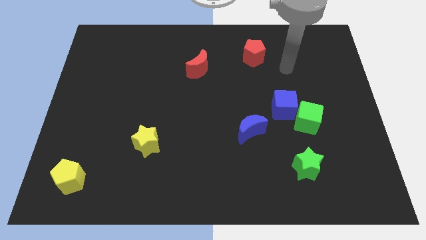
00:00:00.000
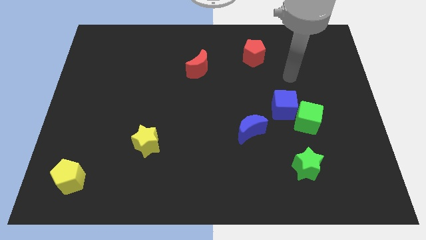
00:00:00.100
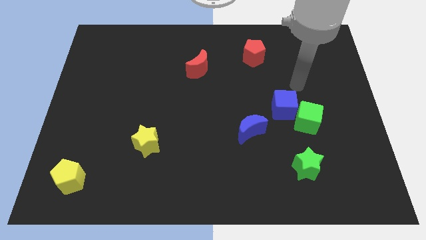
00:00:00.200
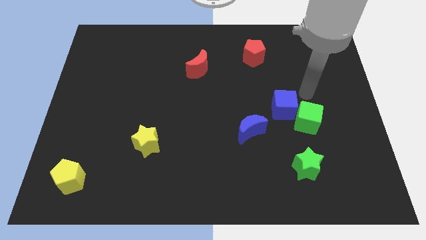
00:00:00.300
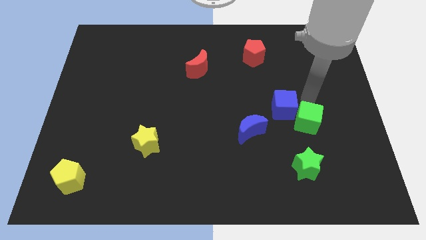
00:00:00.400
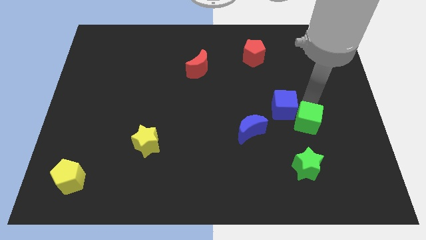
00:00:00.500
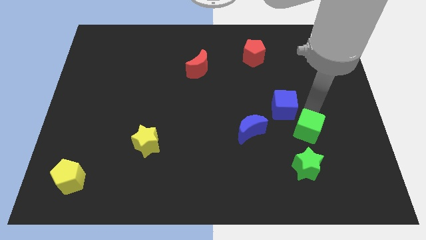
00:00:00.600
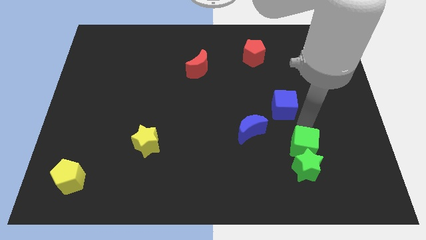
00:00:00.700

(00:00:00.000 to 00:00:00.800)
separate the blue cube from the green cube

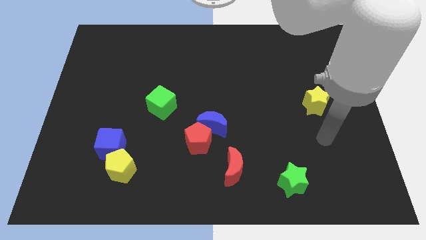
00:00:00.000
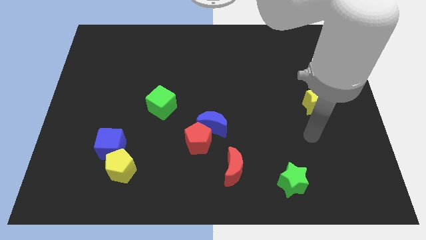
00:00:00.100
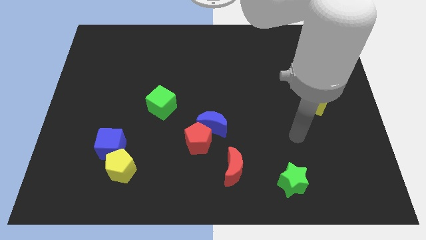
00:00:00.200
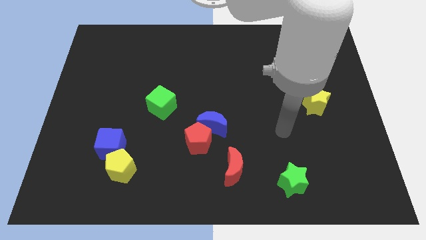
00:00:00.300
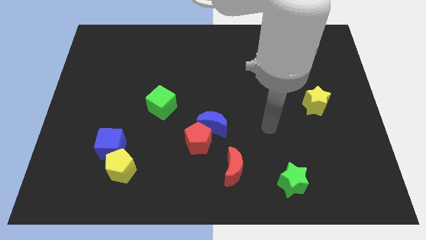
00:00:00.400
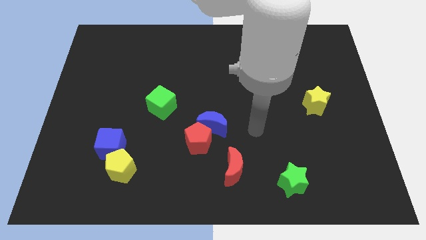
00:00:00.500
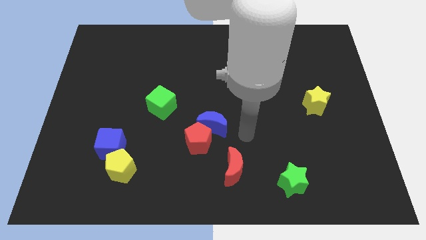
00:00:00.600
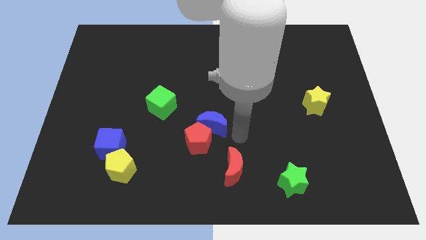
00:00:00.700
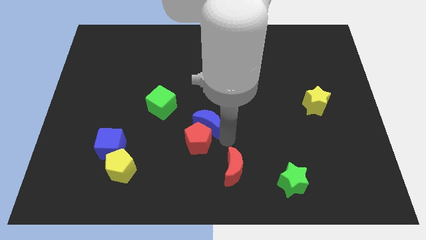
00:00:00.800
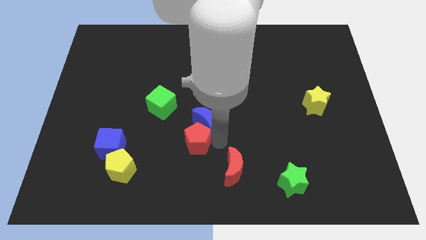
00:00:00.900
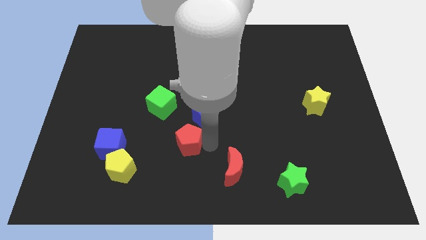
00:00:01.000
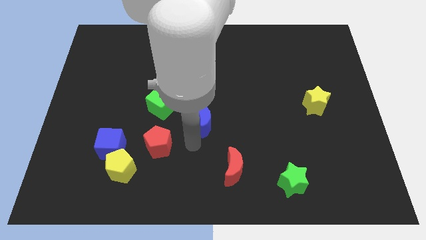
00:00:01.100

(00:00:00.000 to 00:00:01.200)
move the blue moon away from the red pentagon

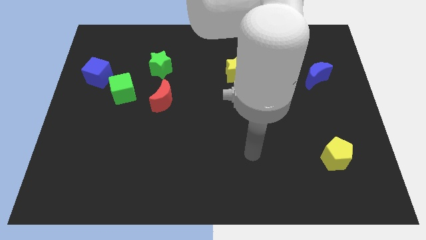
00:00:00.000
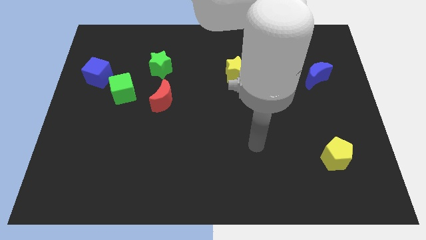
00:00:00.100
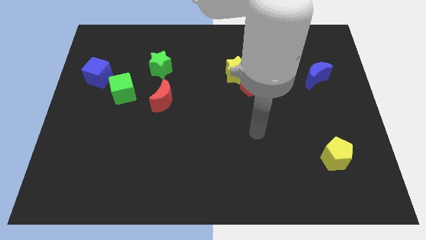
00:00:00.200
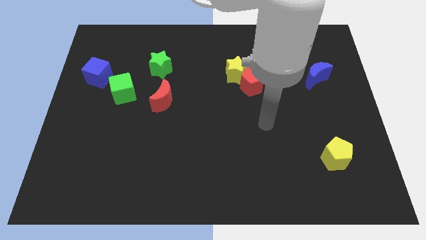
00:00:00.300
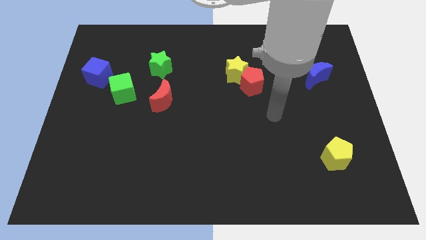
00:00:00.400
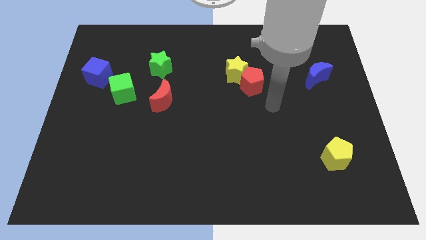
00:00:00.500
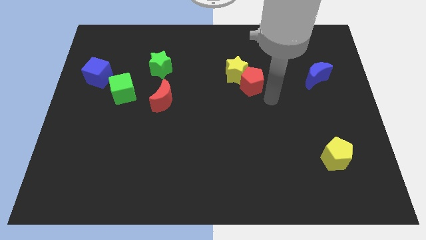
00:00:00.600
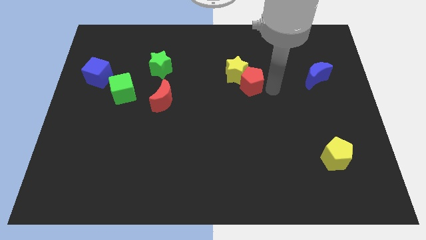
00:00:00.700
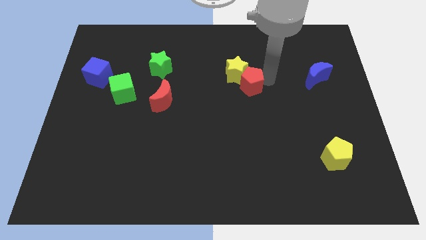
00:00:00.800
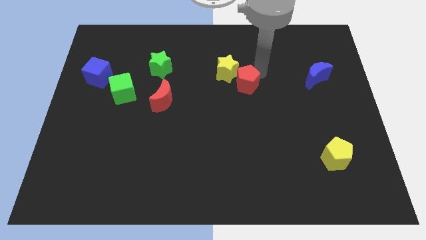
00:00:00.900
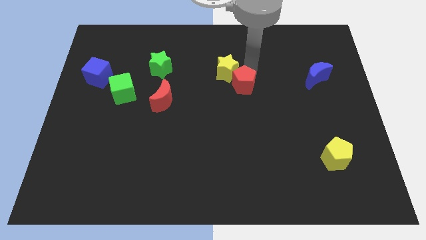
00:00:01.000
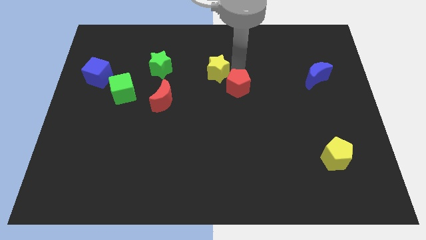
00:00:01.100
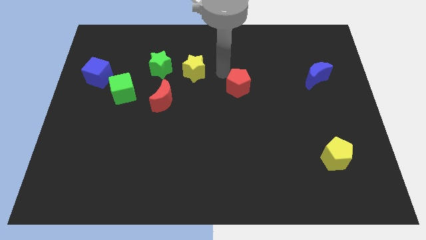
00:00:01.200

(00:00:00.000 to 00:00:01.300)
move the red pentagon away from the yellow star

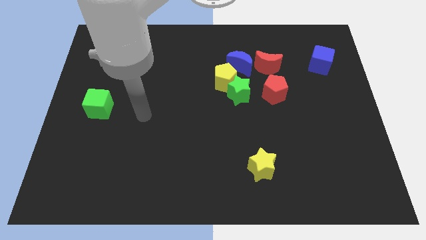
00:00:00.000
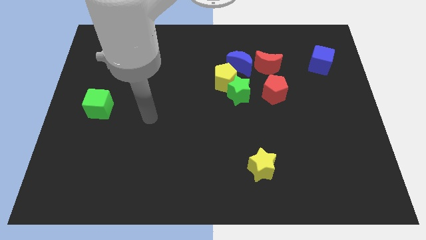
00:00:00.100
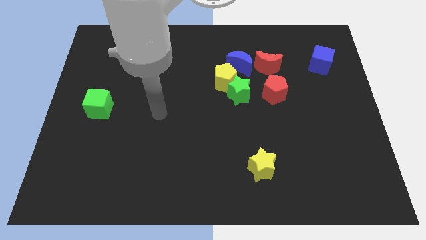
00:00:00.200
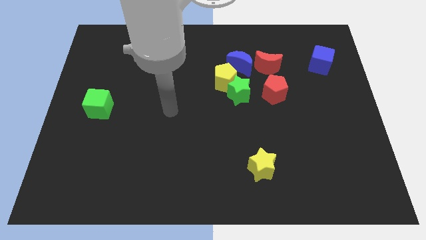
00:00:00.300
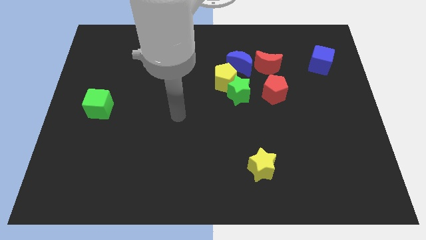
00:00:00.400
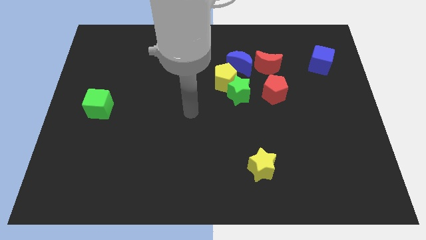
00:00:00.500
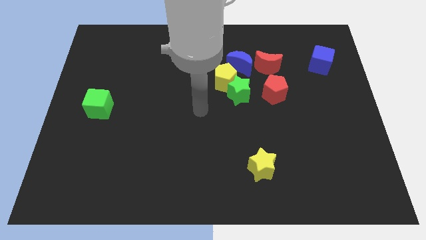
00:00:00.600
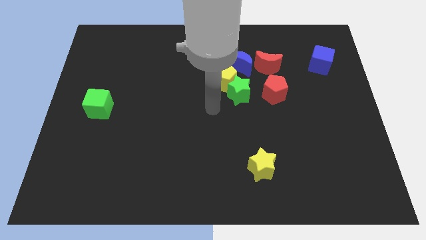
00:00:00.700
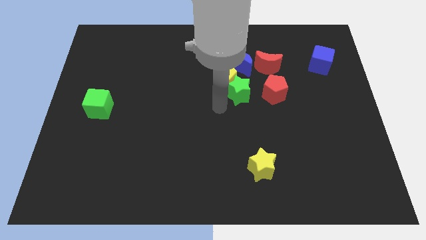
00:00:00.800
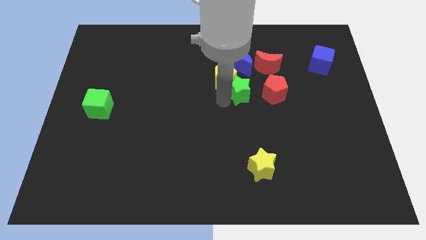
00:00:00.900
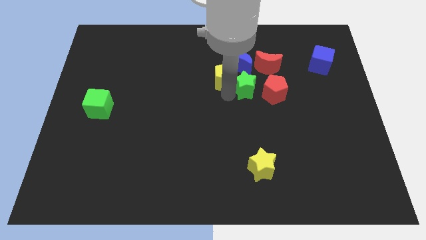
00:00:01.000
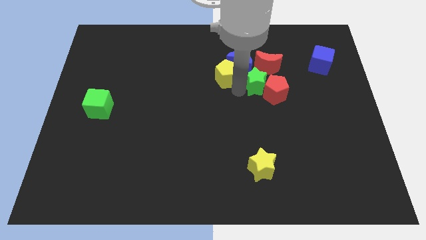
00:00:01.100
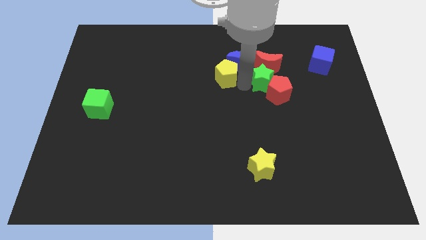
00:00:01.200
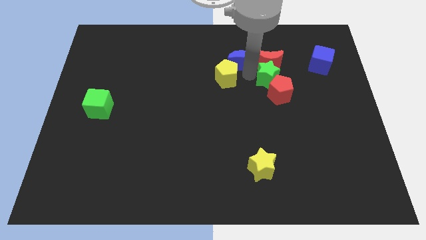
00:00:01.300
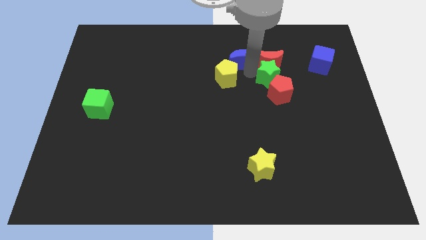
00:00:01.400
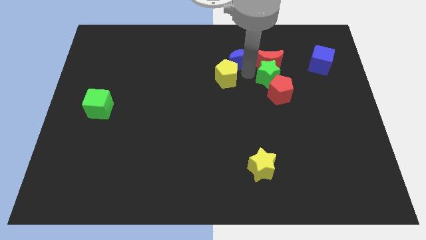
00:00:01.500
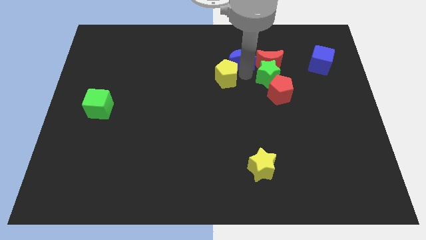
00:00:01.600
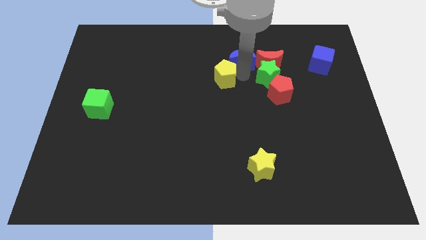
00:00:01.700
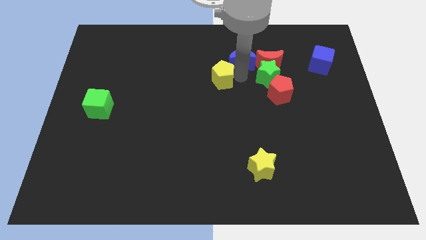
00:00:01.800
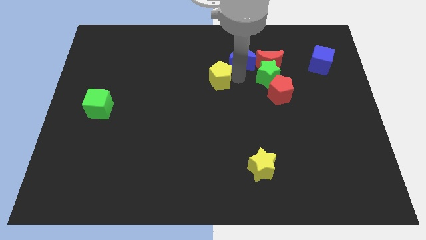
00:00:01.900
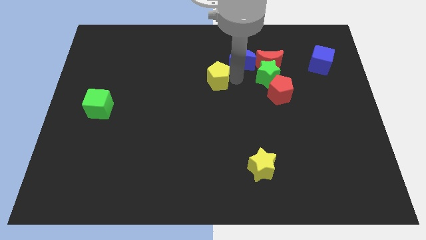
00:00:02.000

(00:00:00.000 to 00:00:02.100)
pull the yellow pentagon apart from the green star and blue moon

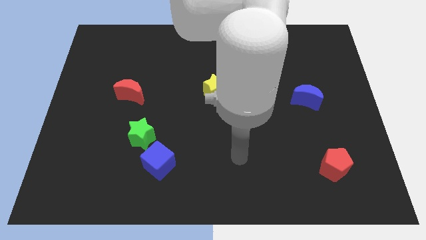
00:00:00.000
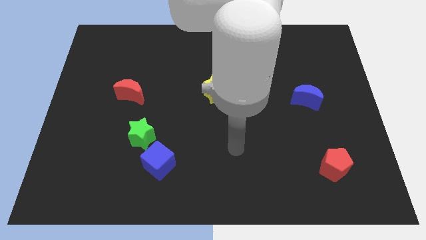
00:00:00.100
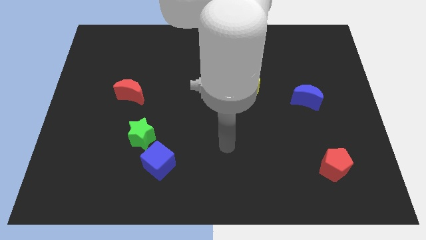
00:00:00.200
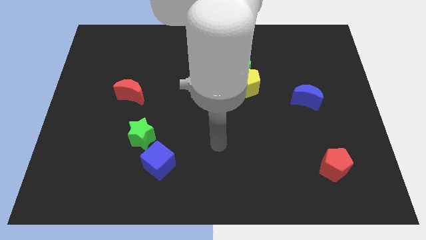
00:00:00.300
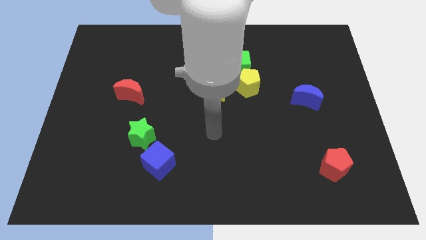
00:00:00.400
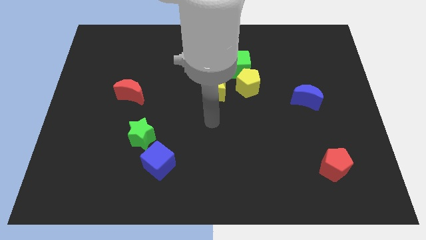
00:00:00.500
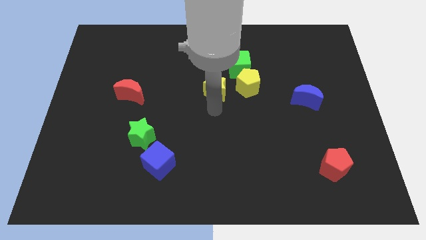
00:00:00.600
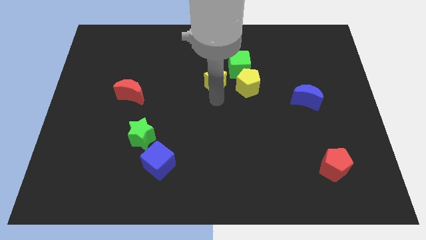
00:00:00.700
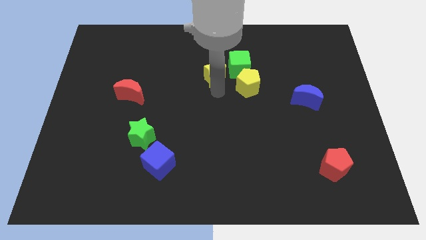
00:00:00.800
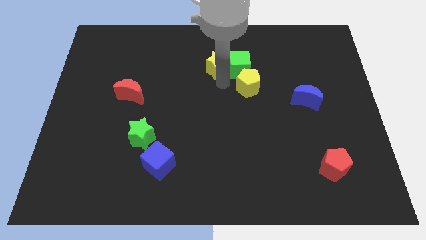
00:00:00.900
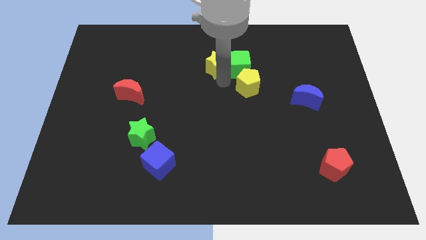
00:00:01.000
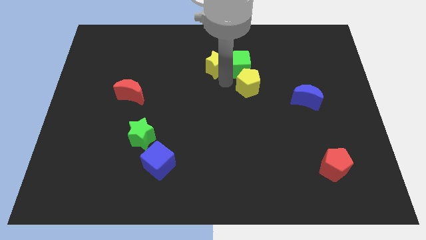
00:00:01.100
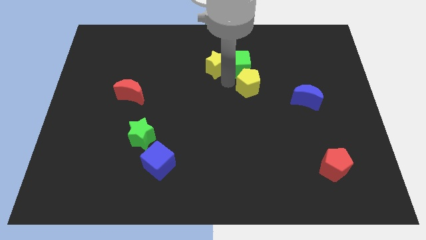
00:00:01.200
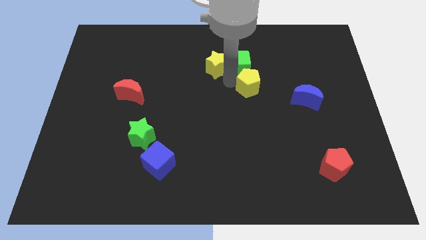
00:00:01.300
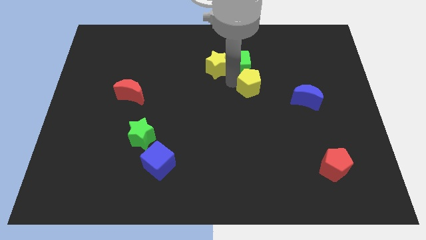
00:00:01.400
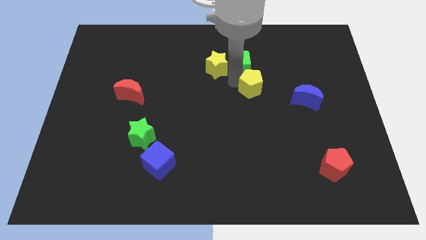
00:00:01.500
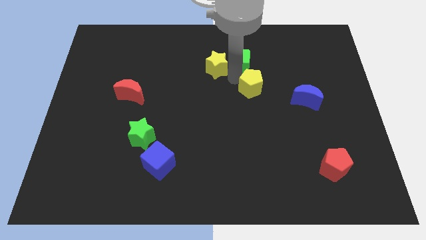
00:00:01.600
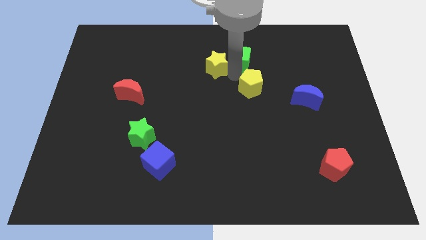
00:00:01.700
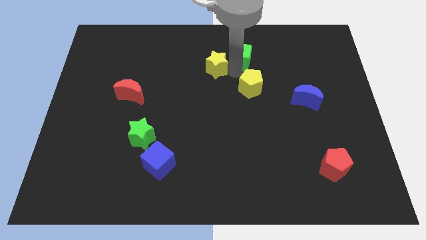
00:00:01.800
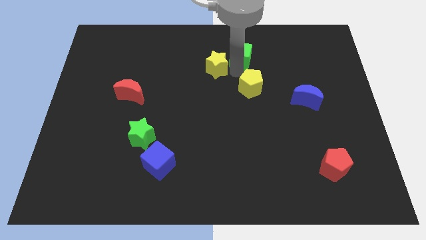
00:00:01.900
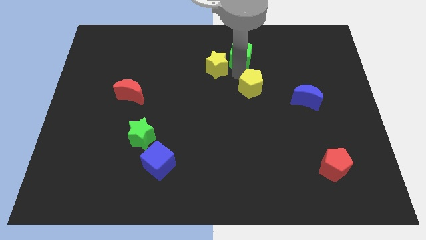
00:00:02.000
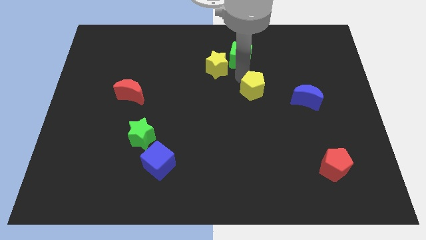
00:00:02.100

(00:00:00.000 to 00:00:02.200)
move the yellow pentagon away from the green cube and yellow star

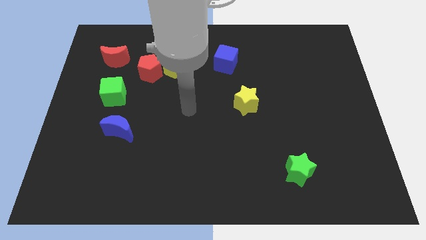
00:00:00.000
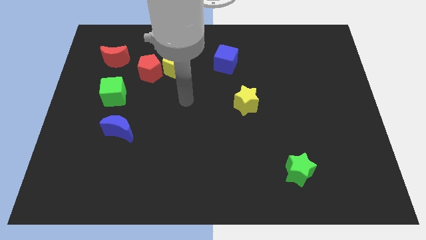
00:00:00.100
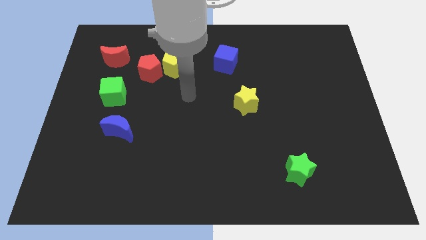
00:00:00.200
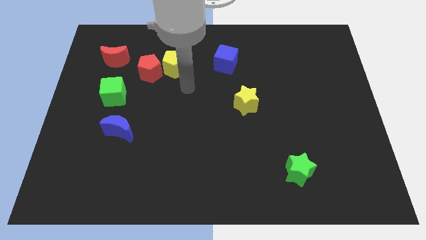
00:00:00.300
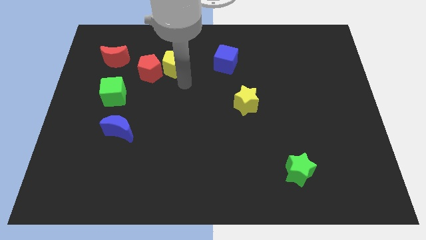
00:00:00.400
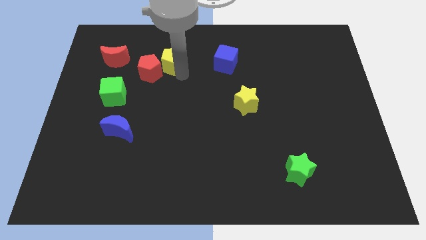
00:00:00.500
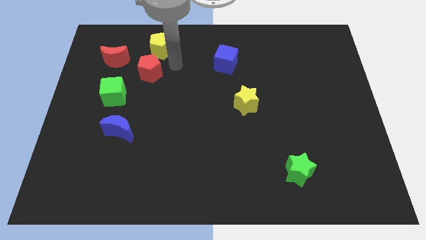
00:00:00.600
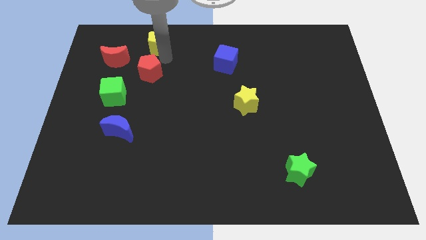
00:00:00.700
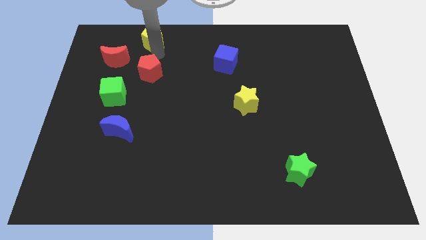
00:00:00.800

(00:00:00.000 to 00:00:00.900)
move the red pentagon away from the yellow pentagon

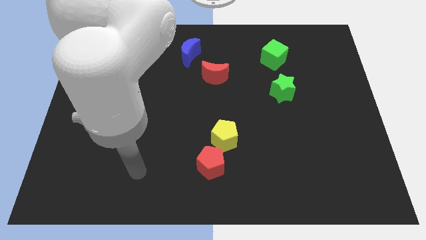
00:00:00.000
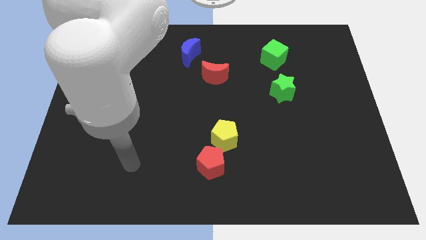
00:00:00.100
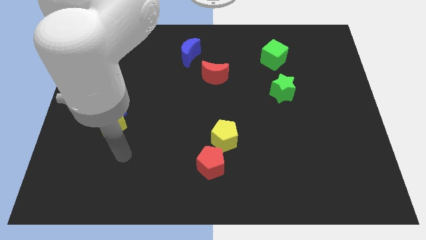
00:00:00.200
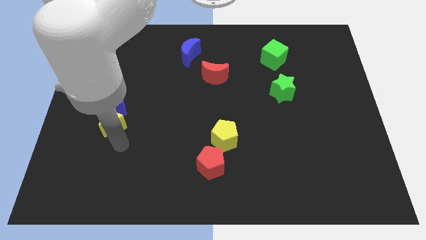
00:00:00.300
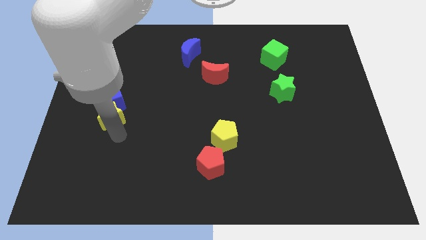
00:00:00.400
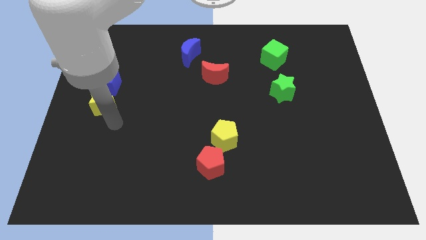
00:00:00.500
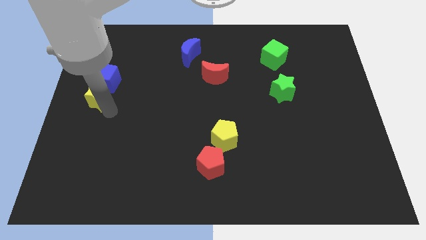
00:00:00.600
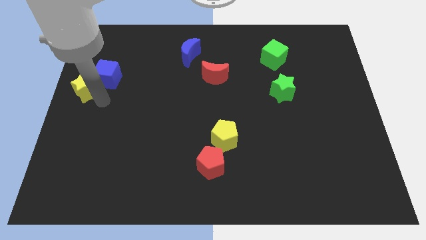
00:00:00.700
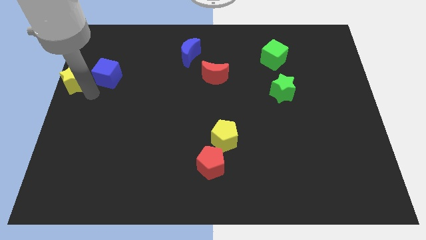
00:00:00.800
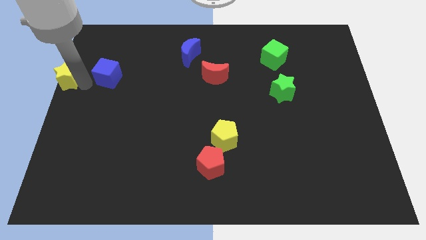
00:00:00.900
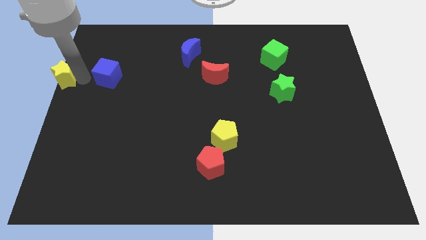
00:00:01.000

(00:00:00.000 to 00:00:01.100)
move the blue cube away from the yellow star
